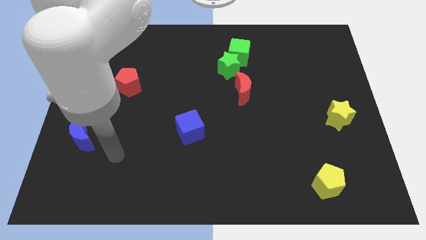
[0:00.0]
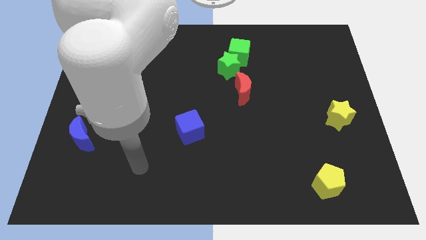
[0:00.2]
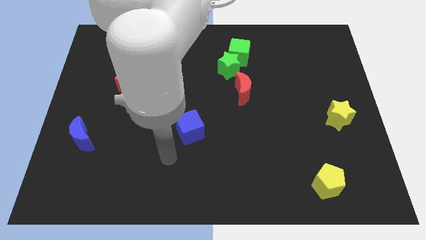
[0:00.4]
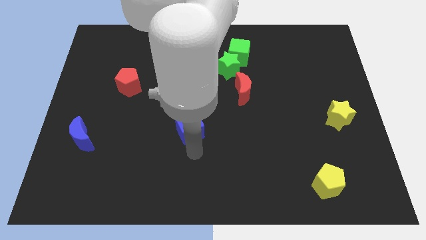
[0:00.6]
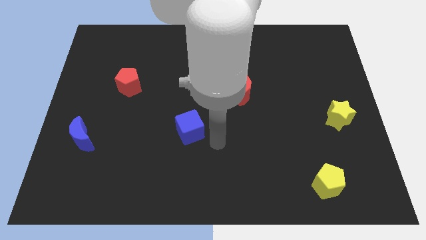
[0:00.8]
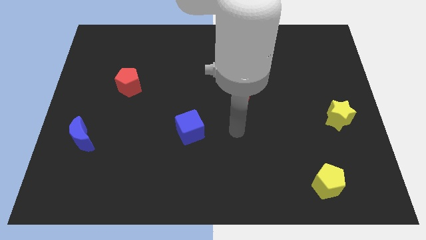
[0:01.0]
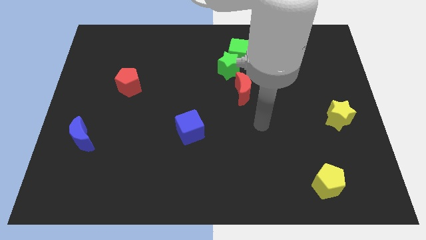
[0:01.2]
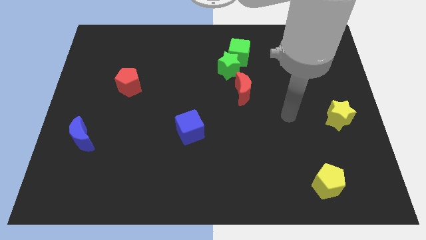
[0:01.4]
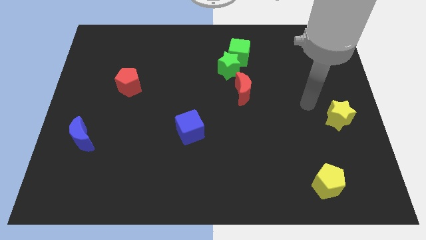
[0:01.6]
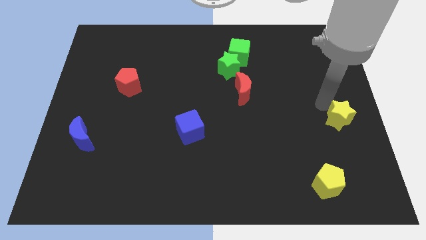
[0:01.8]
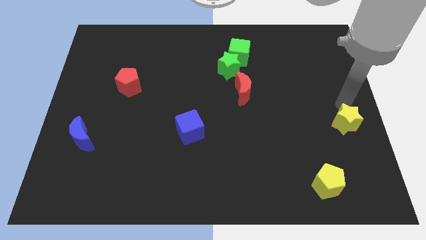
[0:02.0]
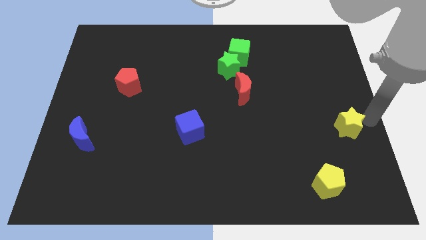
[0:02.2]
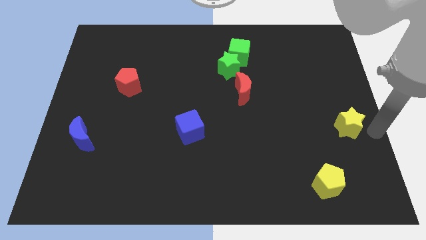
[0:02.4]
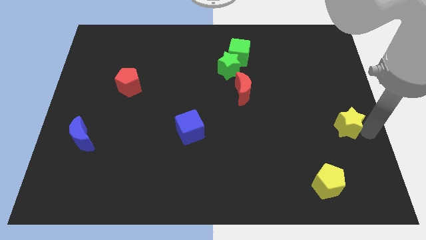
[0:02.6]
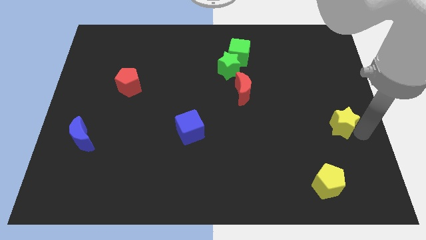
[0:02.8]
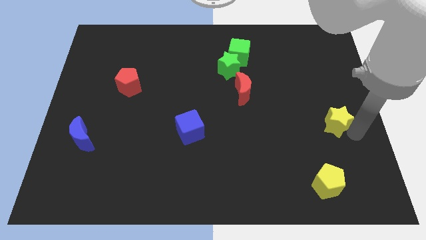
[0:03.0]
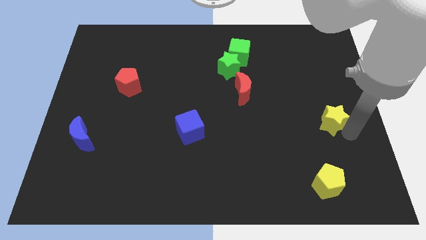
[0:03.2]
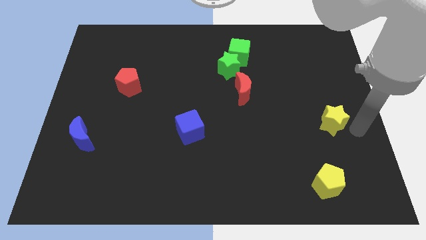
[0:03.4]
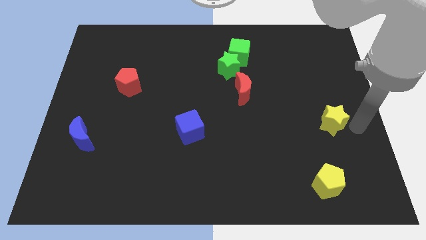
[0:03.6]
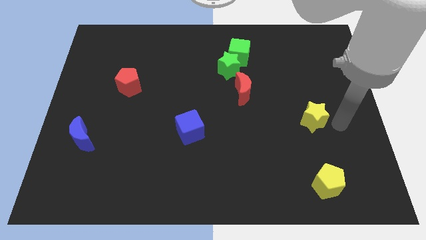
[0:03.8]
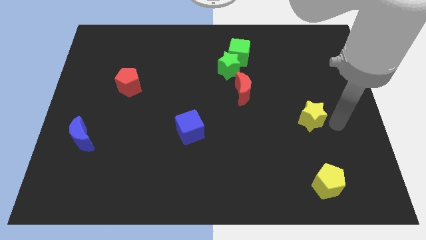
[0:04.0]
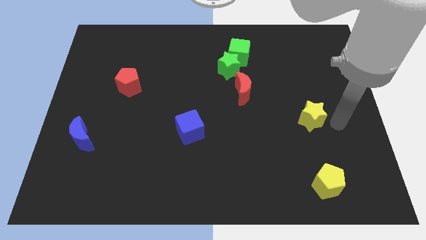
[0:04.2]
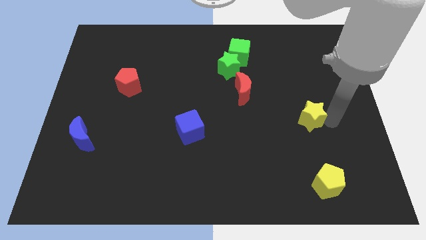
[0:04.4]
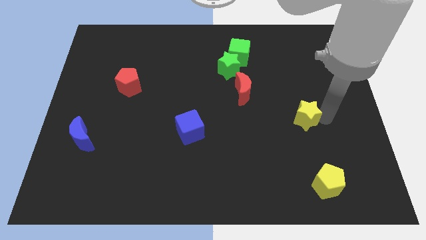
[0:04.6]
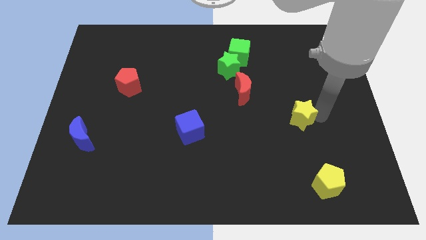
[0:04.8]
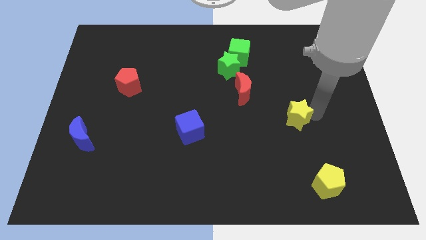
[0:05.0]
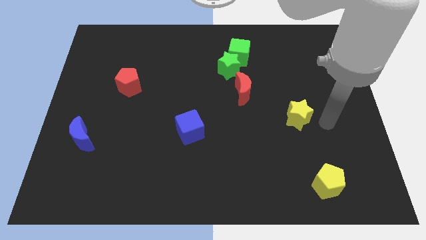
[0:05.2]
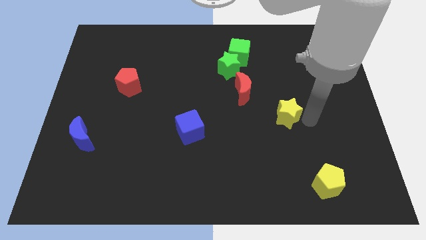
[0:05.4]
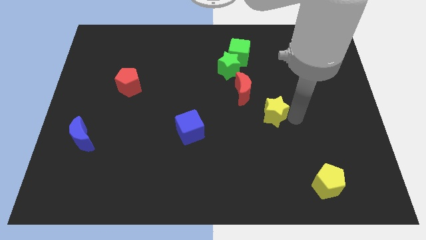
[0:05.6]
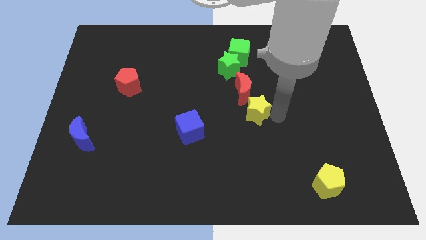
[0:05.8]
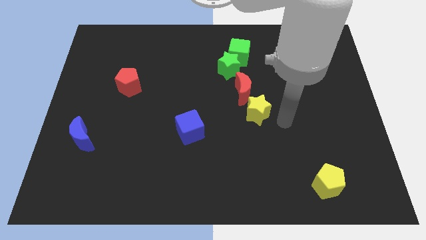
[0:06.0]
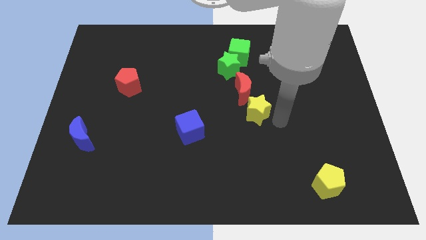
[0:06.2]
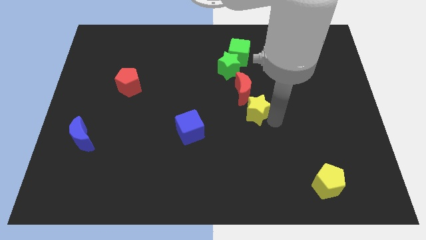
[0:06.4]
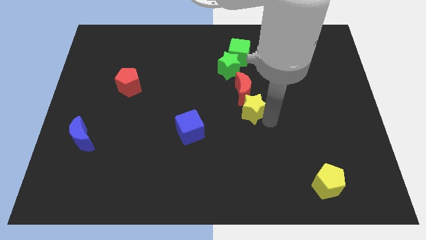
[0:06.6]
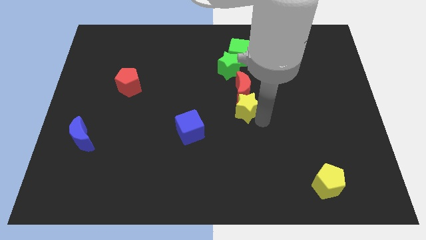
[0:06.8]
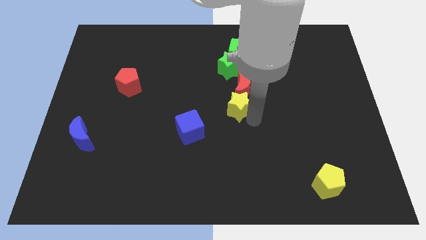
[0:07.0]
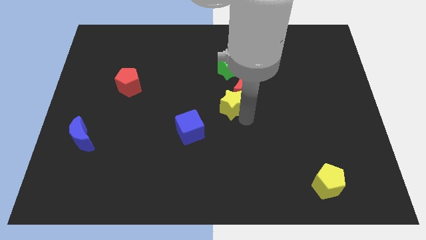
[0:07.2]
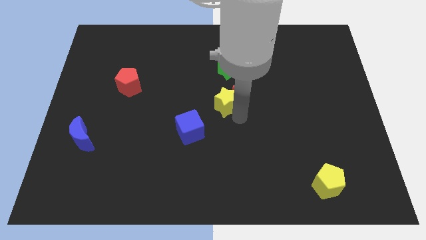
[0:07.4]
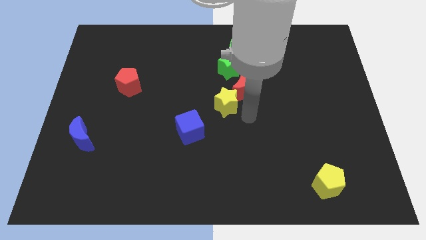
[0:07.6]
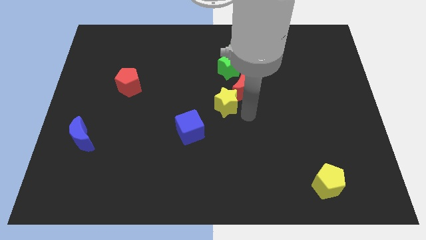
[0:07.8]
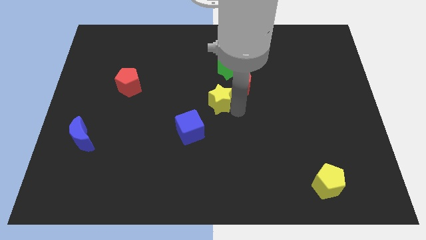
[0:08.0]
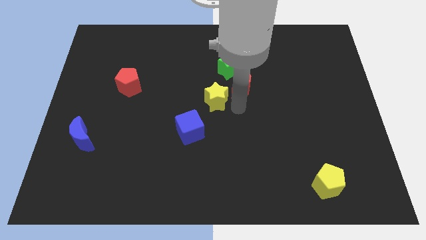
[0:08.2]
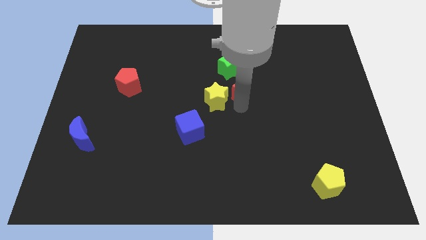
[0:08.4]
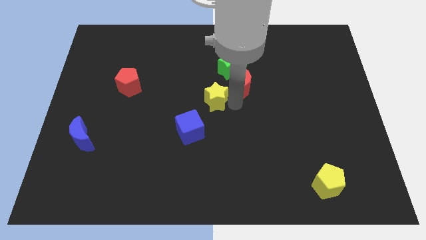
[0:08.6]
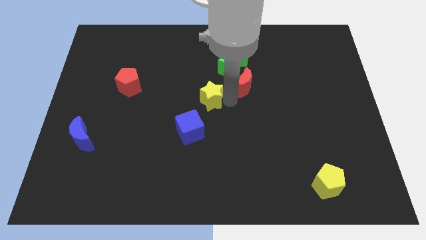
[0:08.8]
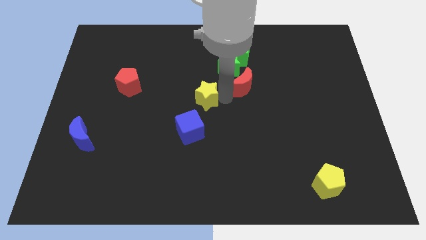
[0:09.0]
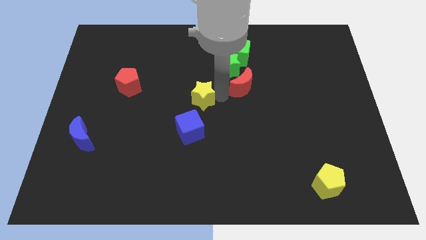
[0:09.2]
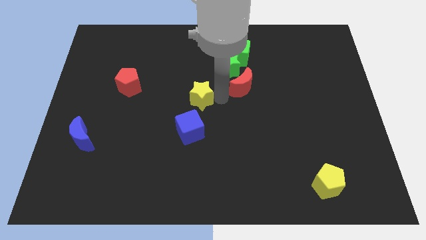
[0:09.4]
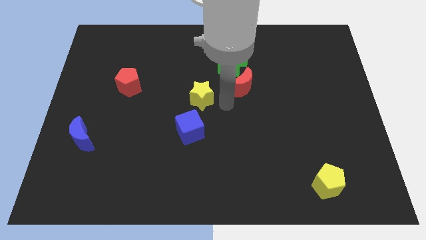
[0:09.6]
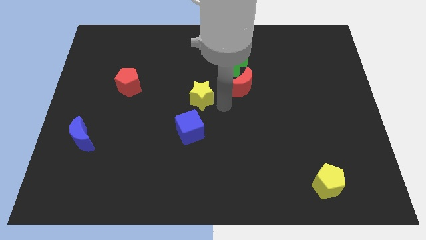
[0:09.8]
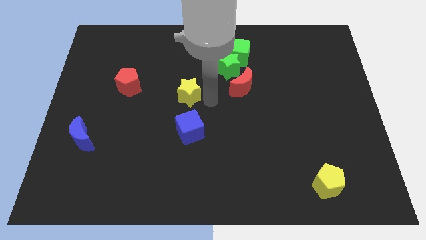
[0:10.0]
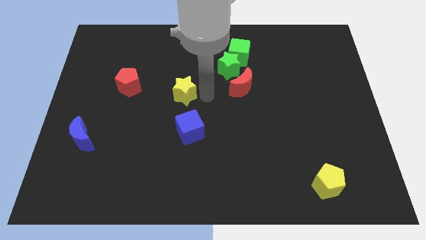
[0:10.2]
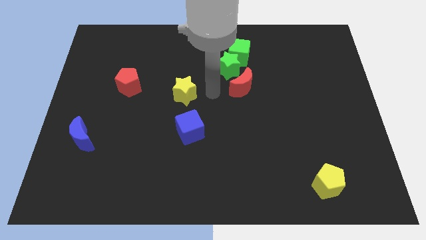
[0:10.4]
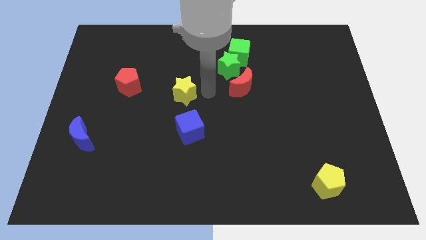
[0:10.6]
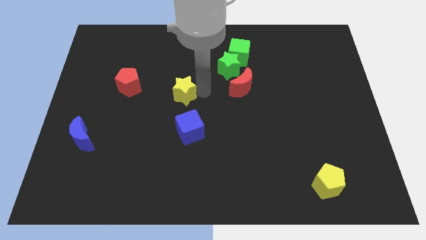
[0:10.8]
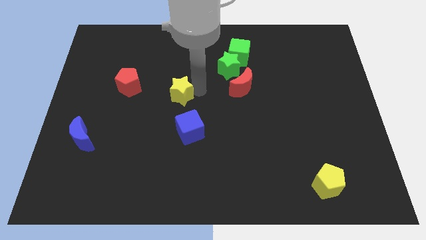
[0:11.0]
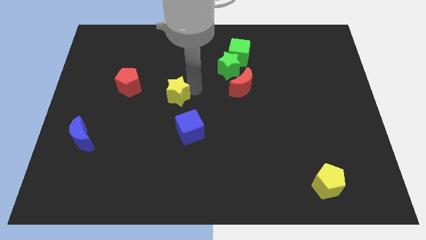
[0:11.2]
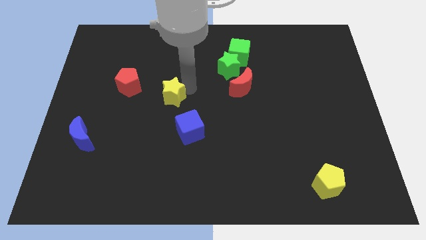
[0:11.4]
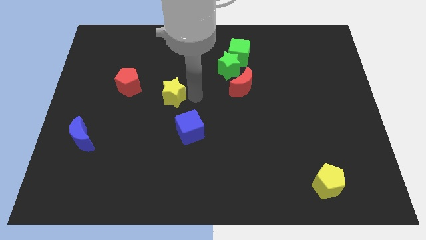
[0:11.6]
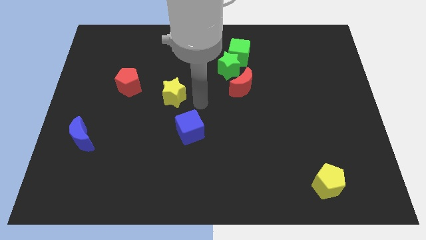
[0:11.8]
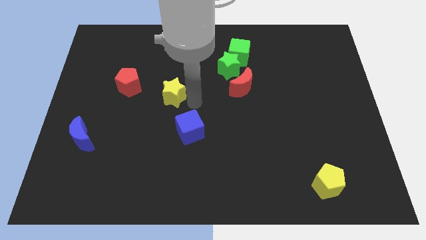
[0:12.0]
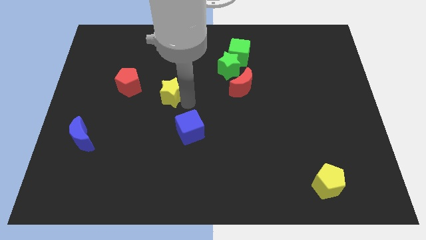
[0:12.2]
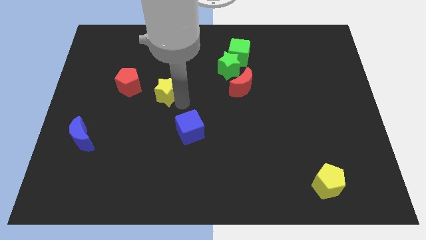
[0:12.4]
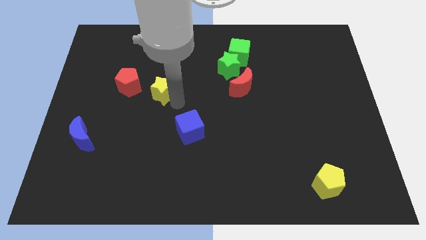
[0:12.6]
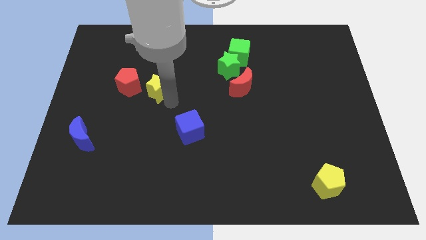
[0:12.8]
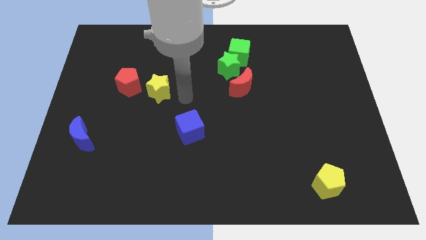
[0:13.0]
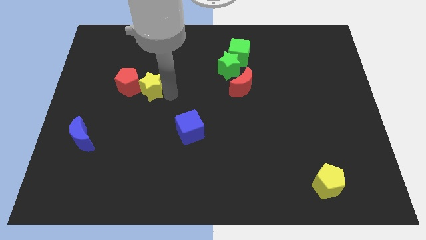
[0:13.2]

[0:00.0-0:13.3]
move the yellow star to the red pentagon
